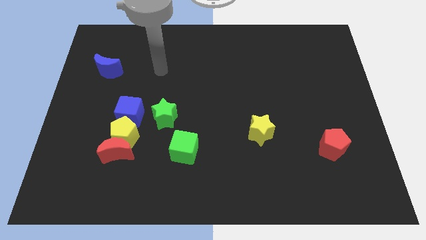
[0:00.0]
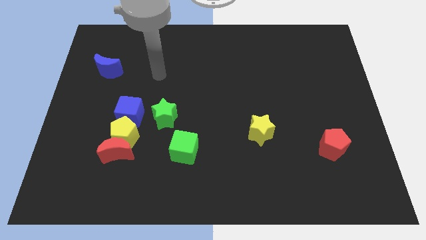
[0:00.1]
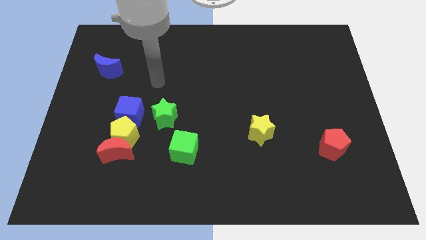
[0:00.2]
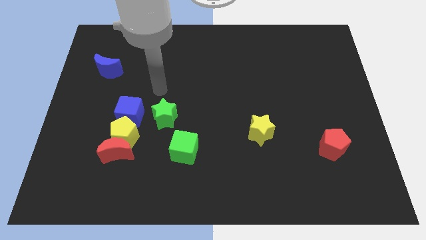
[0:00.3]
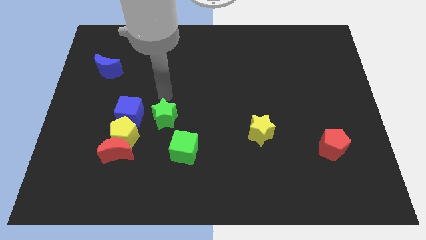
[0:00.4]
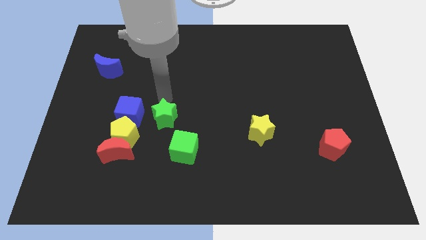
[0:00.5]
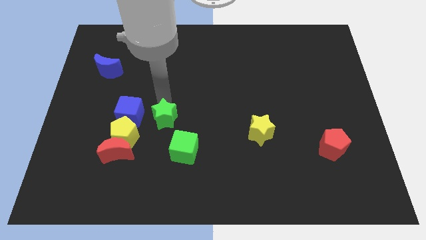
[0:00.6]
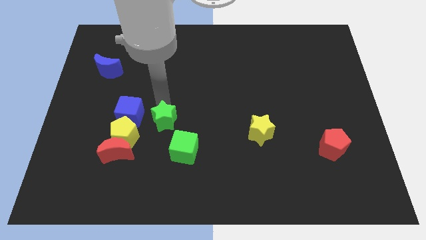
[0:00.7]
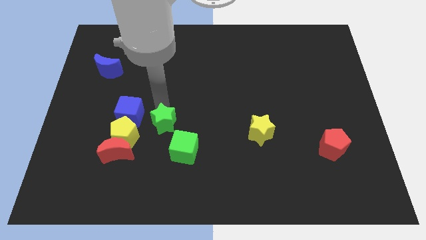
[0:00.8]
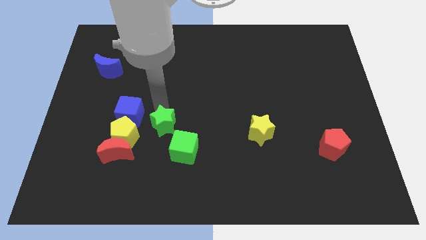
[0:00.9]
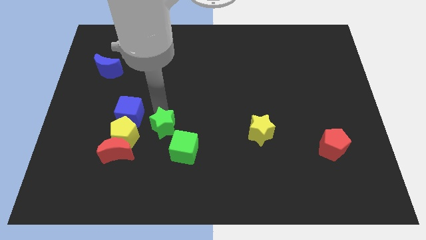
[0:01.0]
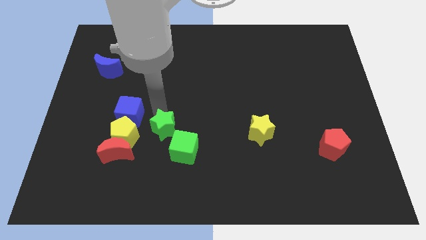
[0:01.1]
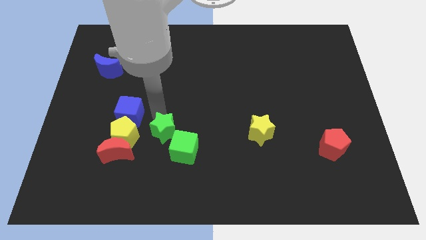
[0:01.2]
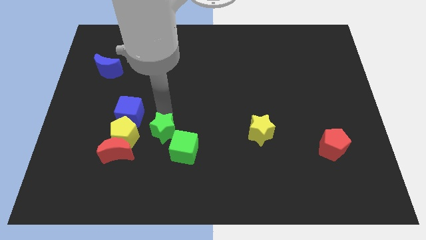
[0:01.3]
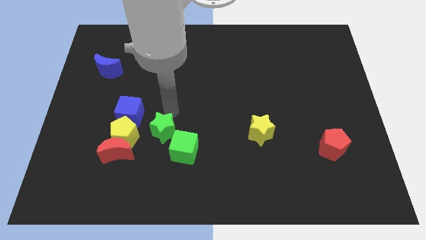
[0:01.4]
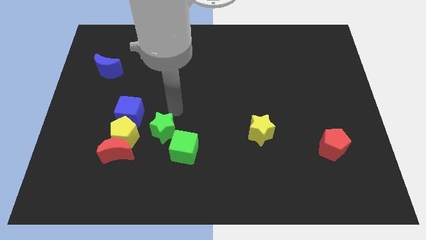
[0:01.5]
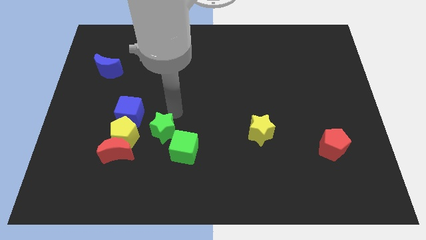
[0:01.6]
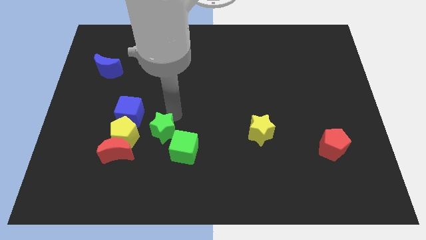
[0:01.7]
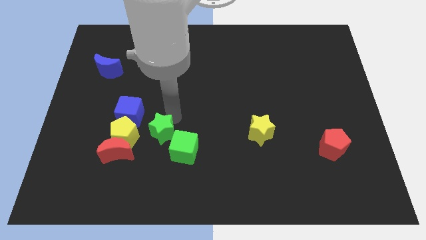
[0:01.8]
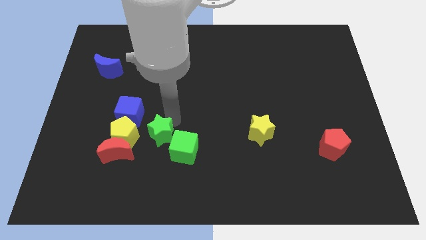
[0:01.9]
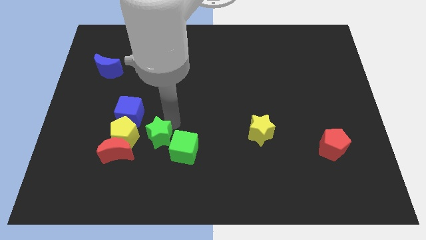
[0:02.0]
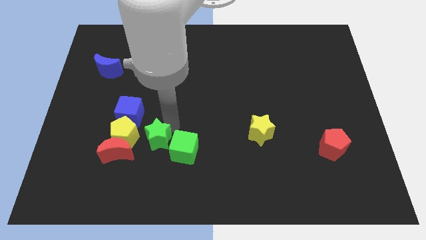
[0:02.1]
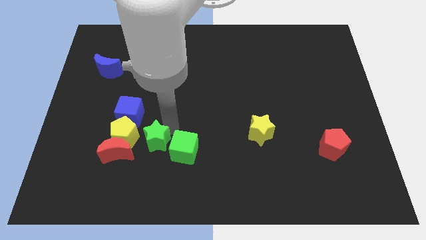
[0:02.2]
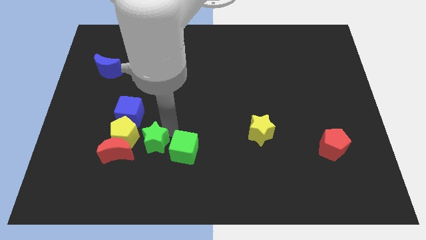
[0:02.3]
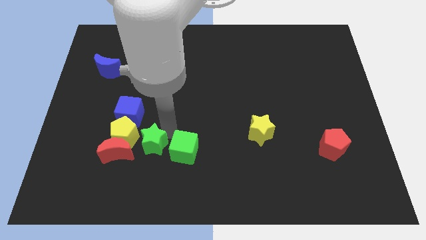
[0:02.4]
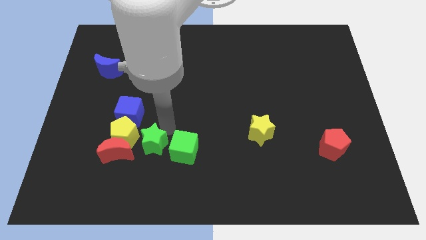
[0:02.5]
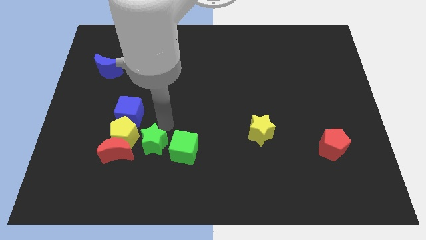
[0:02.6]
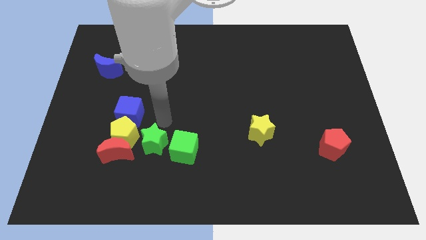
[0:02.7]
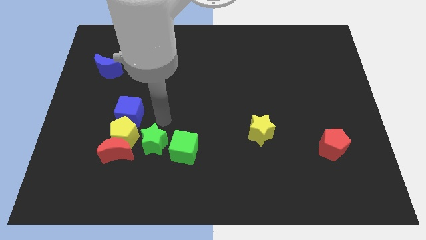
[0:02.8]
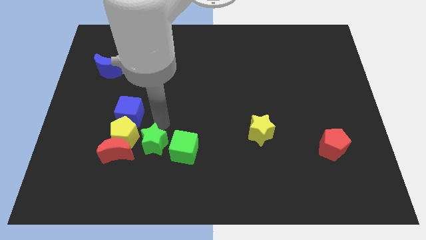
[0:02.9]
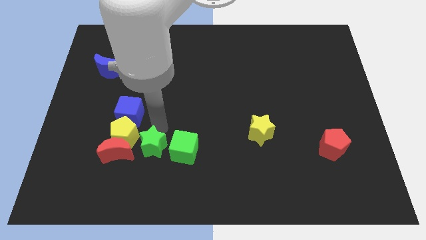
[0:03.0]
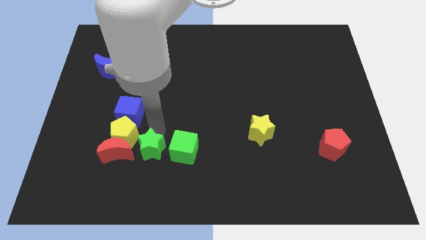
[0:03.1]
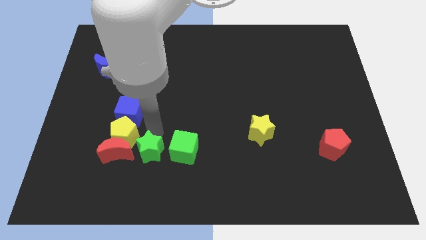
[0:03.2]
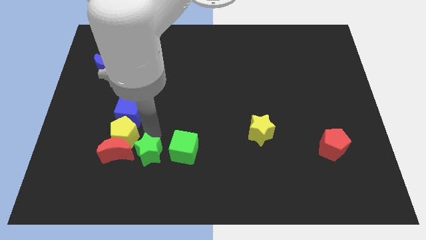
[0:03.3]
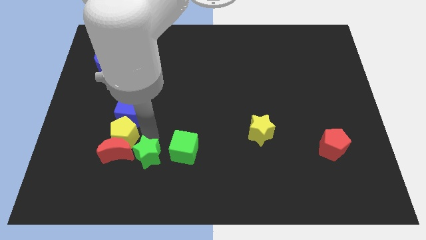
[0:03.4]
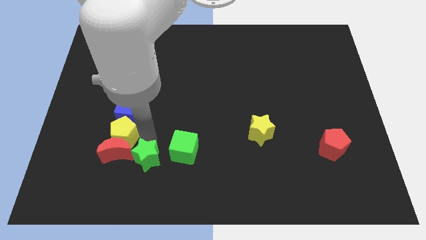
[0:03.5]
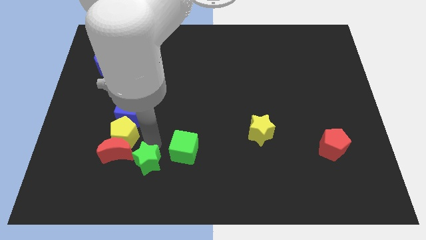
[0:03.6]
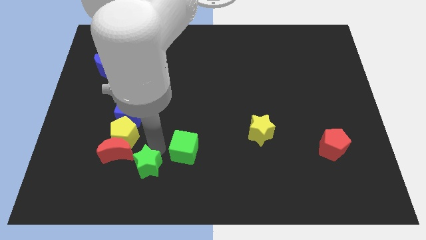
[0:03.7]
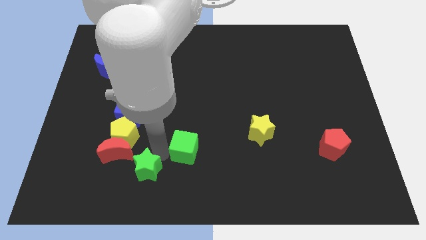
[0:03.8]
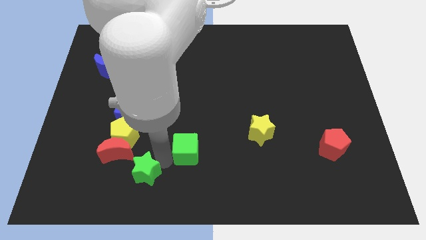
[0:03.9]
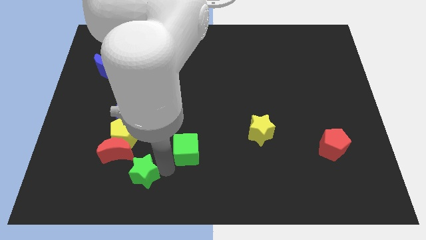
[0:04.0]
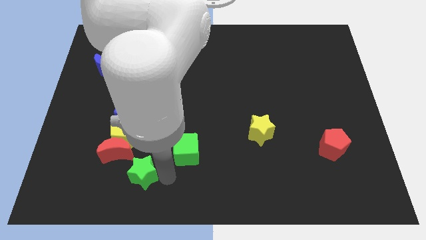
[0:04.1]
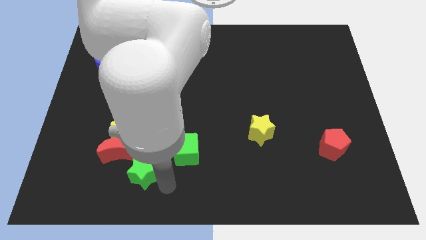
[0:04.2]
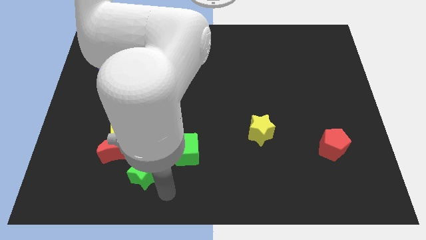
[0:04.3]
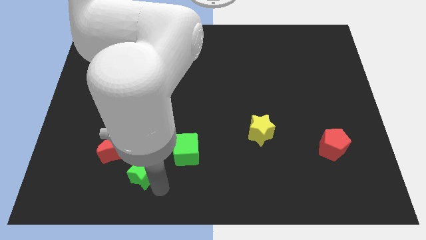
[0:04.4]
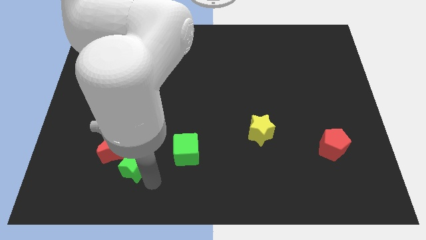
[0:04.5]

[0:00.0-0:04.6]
move the green star next to the red moon

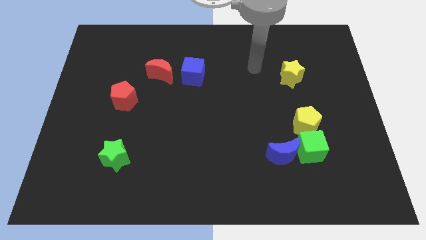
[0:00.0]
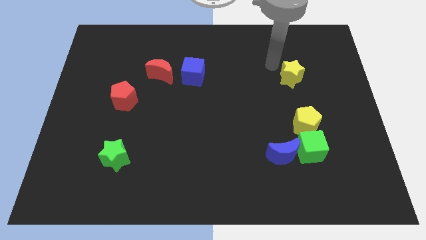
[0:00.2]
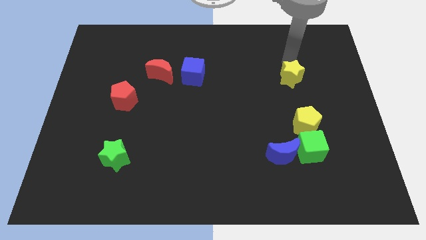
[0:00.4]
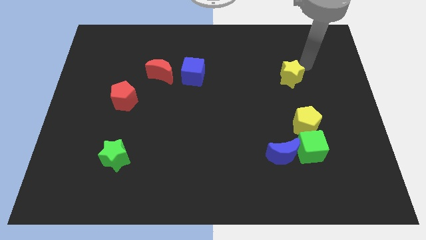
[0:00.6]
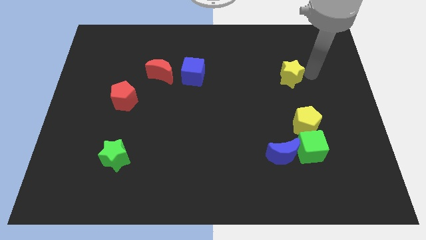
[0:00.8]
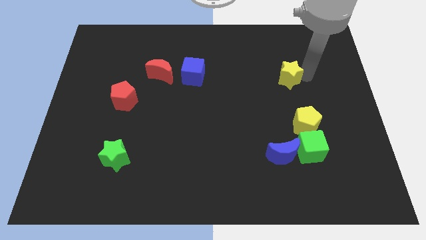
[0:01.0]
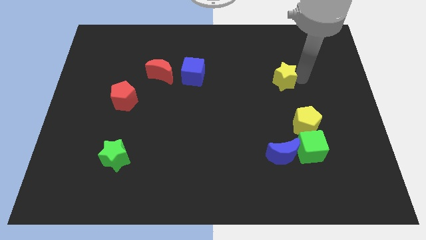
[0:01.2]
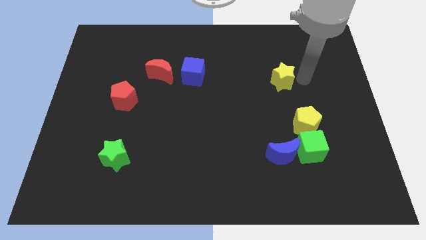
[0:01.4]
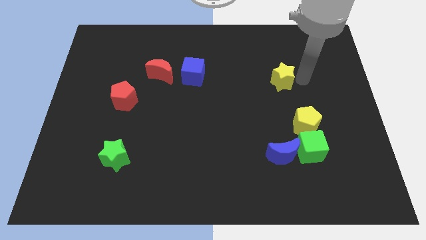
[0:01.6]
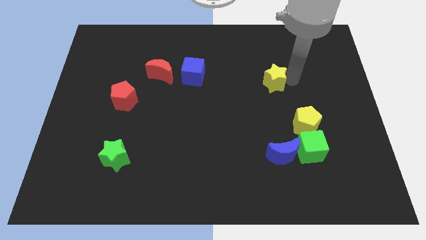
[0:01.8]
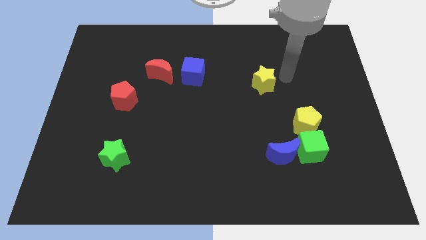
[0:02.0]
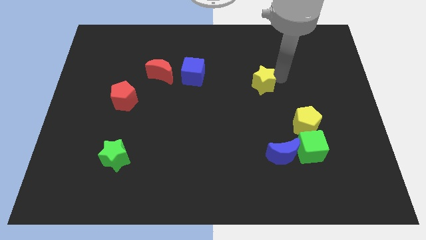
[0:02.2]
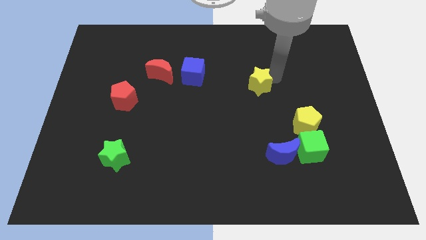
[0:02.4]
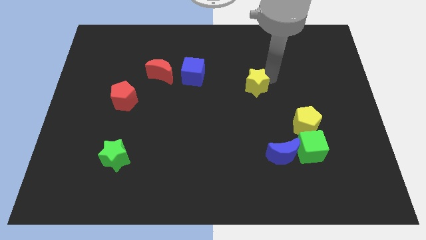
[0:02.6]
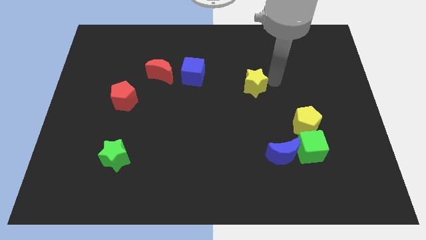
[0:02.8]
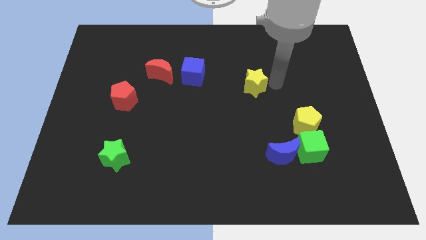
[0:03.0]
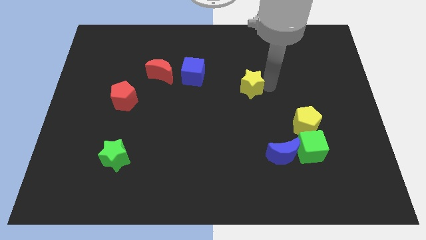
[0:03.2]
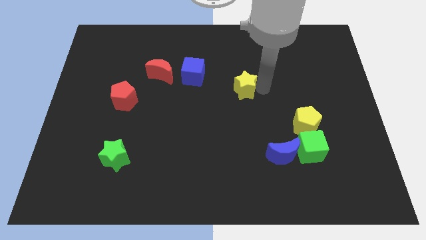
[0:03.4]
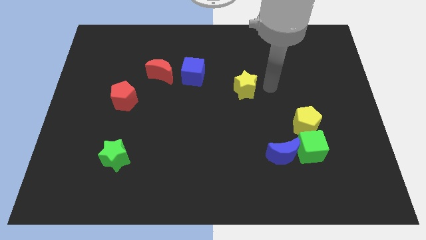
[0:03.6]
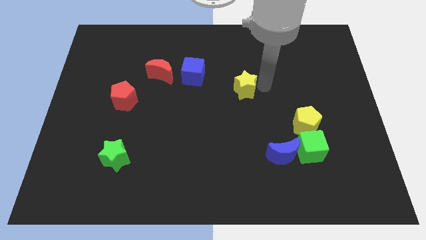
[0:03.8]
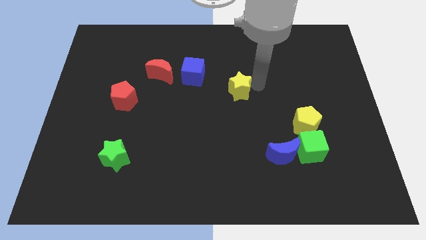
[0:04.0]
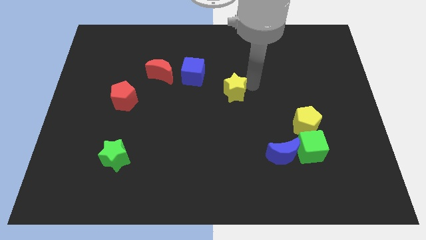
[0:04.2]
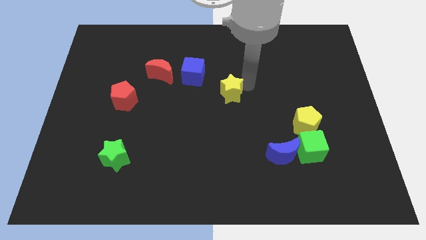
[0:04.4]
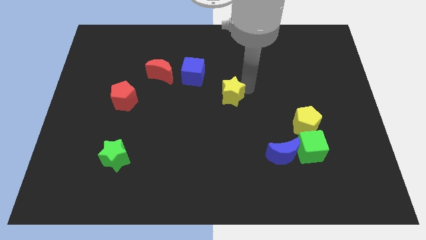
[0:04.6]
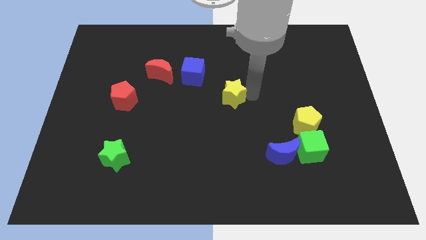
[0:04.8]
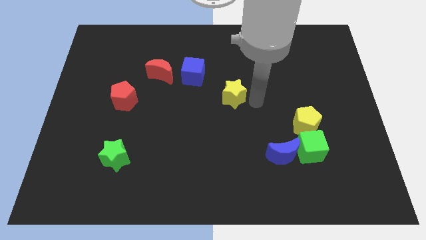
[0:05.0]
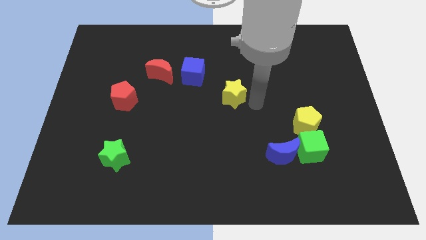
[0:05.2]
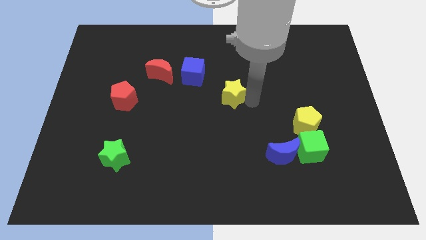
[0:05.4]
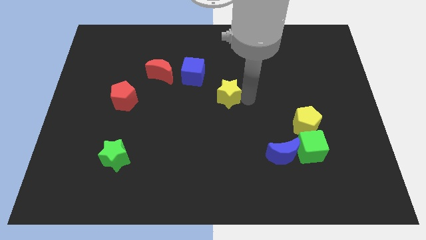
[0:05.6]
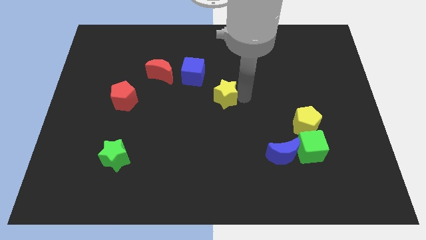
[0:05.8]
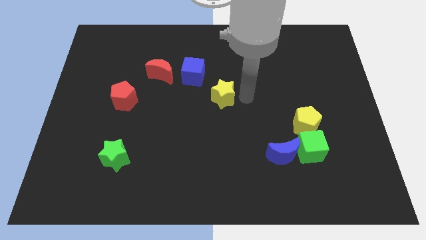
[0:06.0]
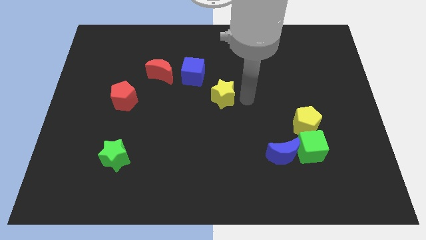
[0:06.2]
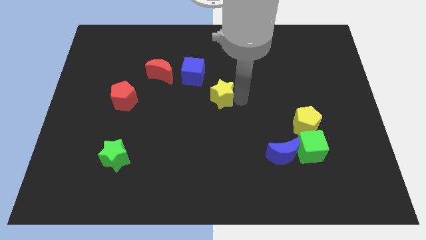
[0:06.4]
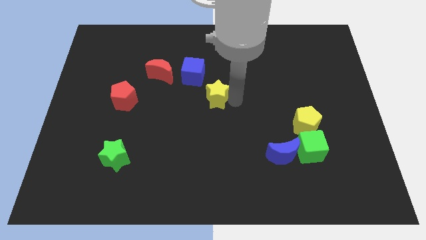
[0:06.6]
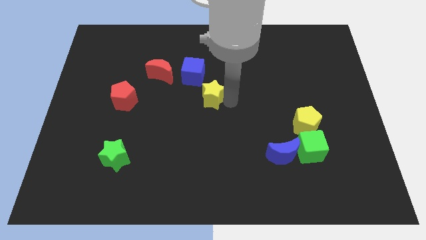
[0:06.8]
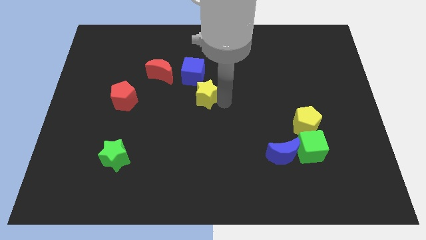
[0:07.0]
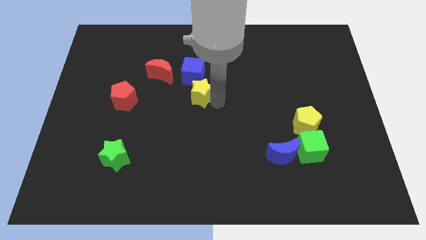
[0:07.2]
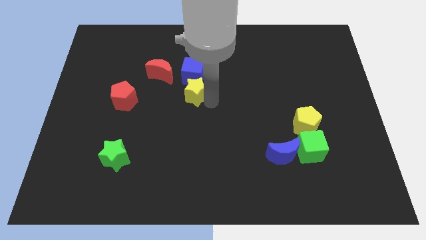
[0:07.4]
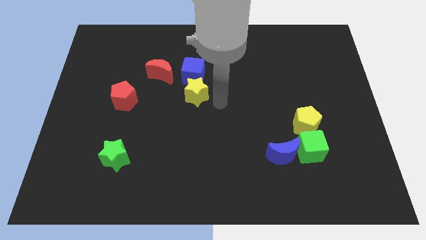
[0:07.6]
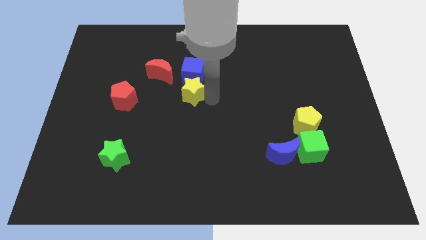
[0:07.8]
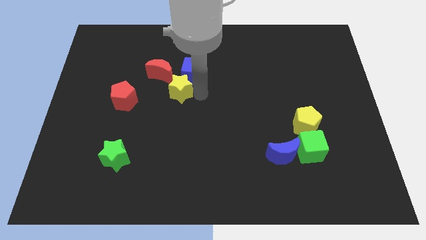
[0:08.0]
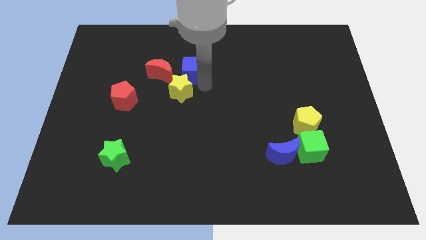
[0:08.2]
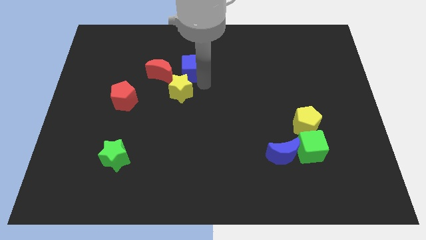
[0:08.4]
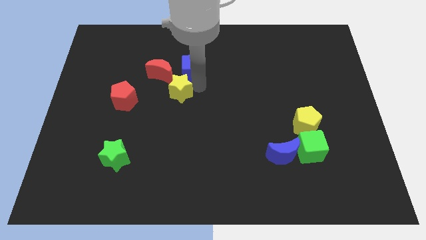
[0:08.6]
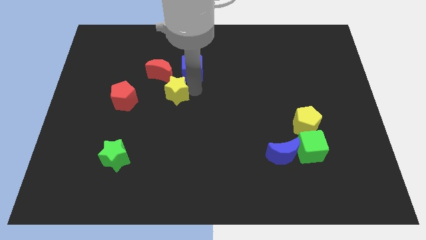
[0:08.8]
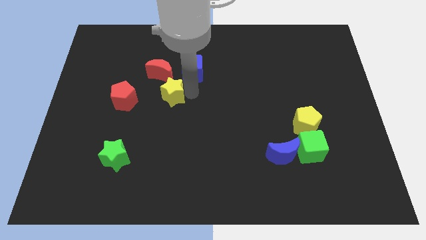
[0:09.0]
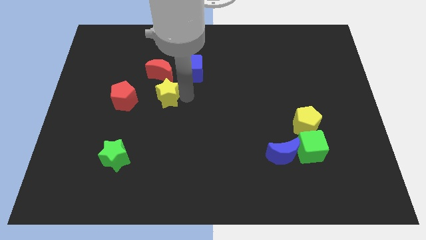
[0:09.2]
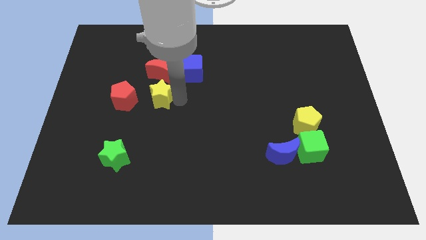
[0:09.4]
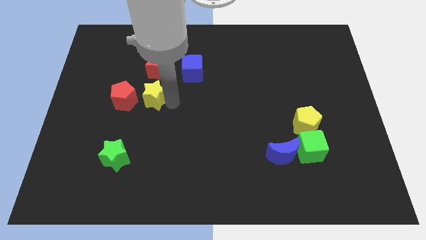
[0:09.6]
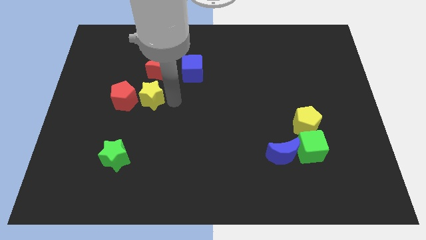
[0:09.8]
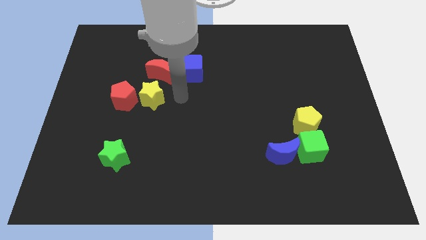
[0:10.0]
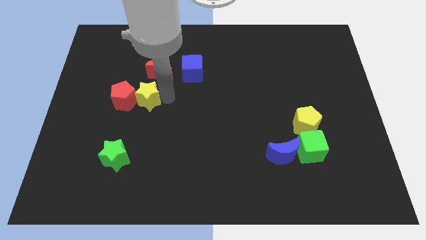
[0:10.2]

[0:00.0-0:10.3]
put the yellow star to the red pentagon
